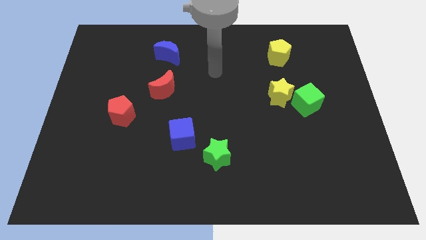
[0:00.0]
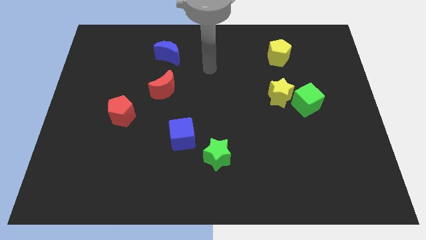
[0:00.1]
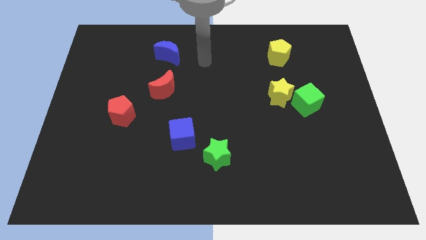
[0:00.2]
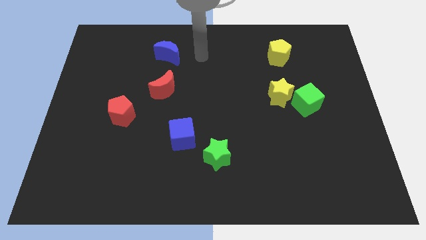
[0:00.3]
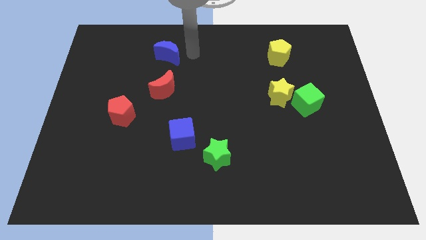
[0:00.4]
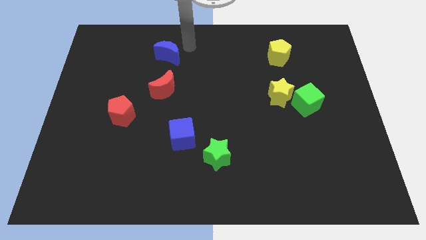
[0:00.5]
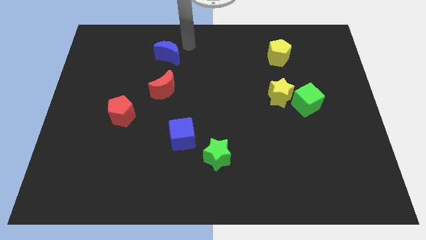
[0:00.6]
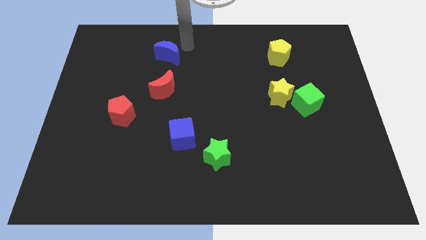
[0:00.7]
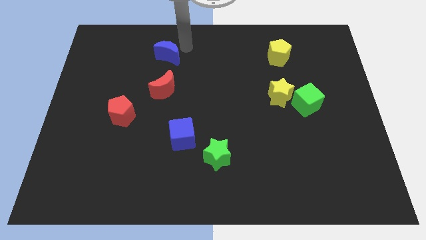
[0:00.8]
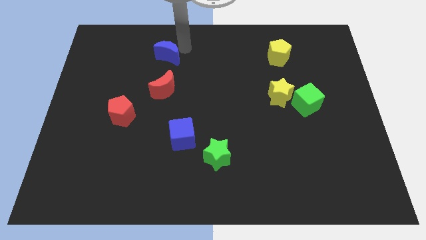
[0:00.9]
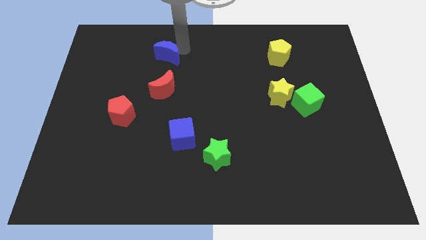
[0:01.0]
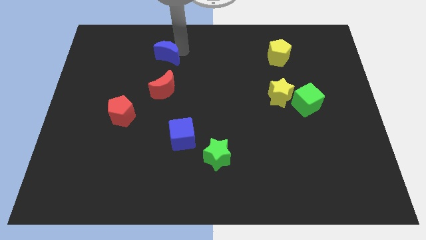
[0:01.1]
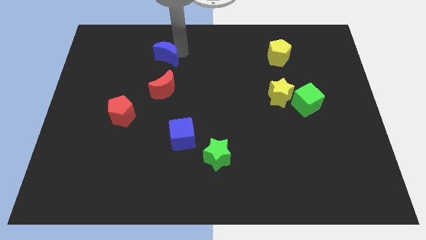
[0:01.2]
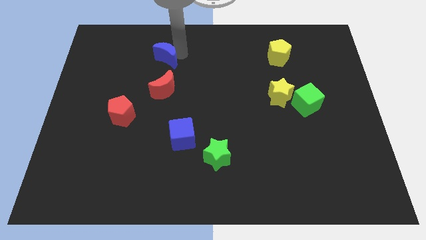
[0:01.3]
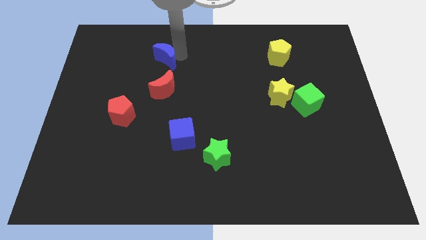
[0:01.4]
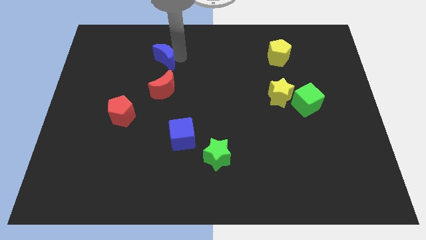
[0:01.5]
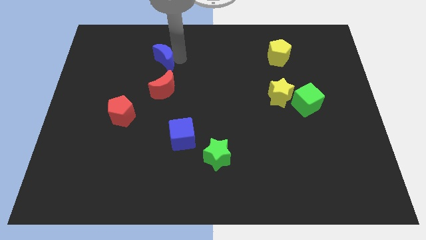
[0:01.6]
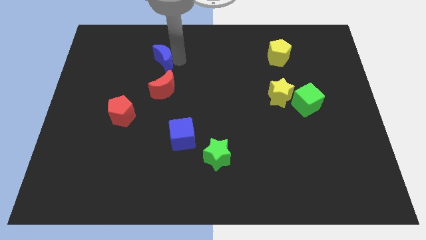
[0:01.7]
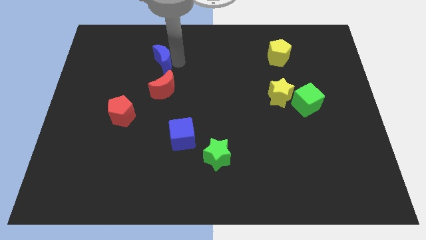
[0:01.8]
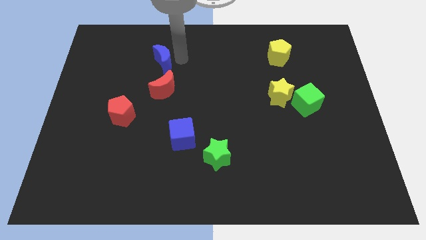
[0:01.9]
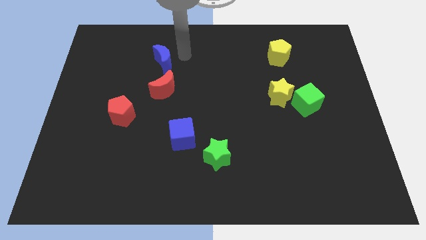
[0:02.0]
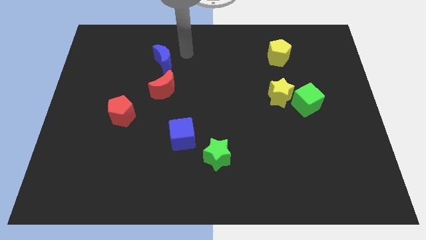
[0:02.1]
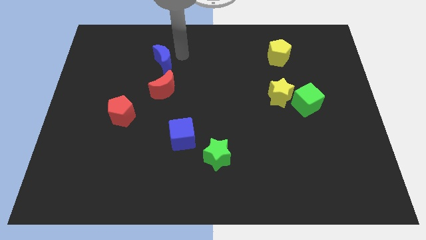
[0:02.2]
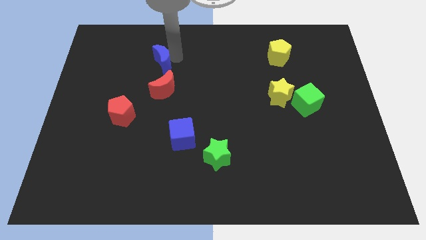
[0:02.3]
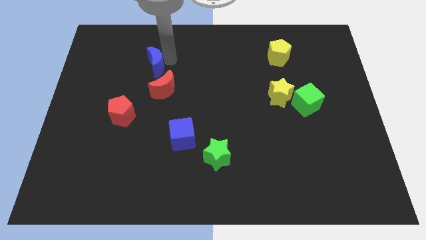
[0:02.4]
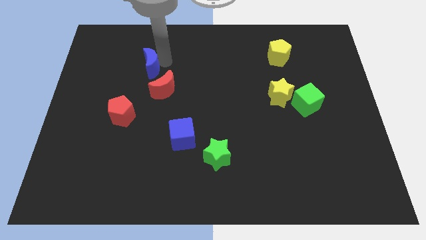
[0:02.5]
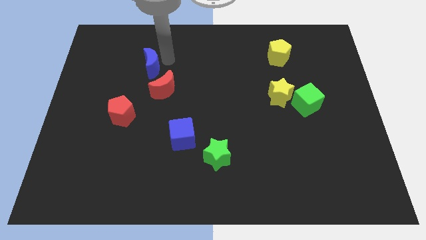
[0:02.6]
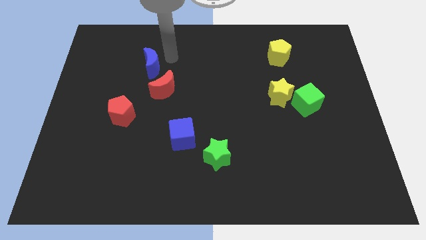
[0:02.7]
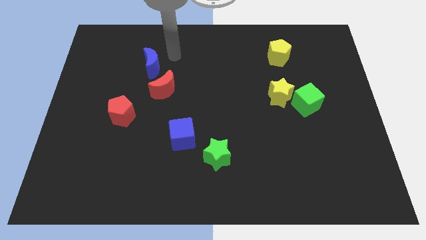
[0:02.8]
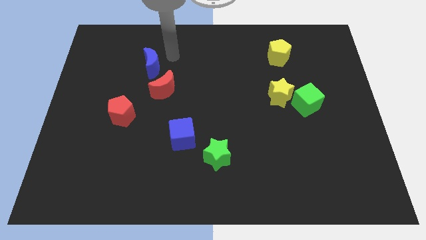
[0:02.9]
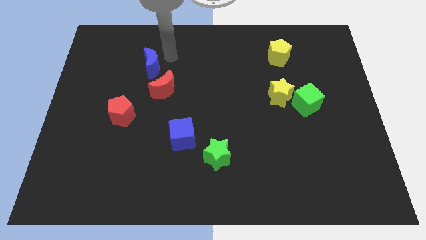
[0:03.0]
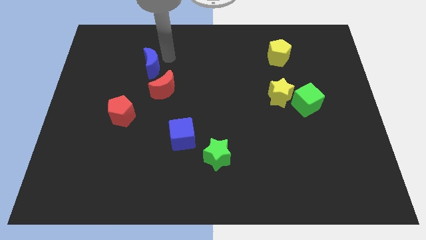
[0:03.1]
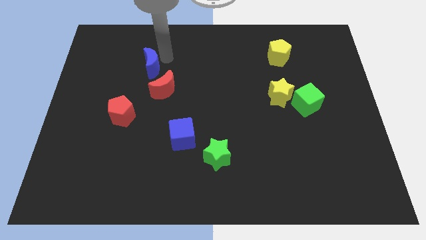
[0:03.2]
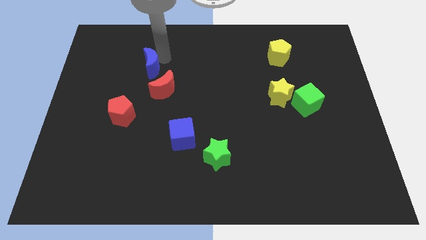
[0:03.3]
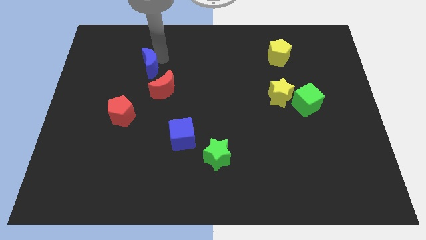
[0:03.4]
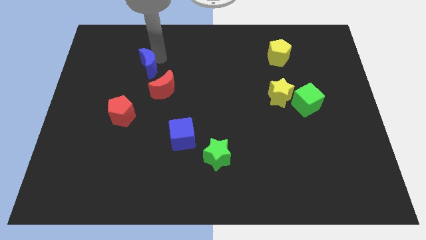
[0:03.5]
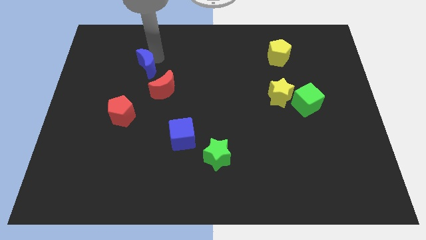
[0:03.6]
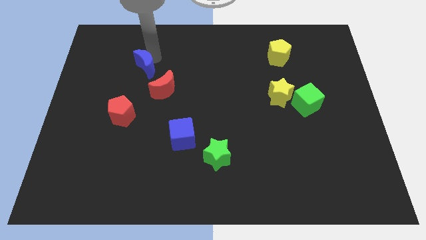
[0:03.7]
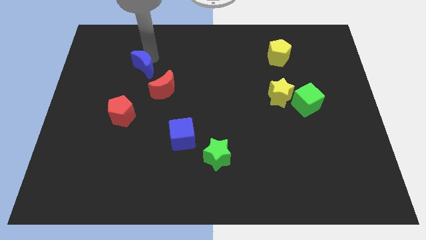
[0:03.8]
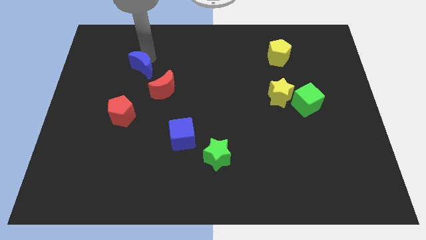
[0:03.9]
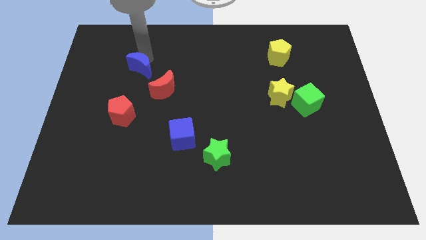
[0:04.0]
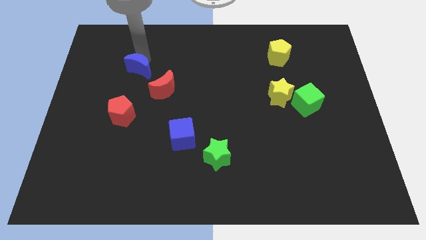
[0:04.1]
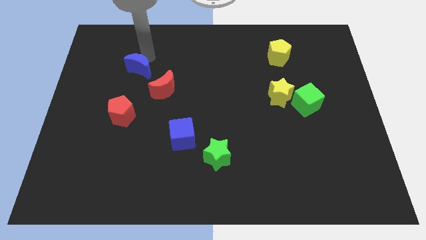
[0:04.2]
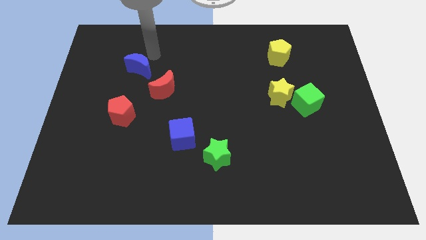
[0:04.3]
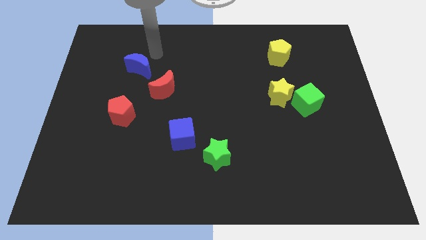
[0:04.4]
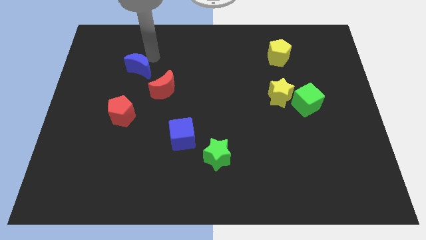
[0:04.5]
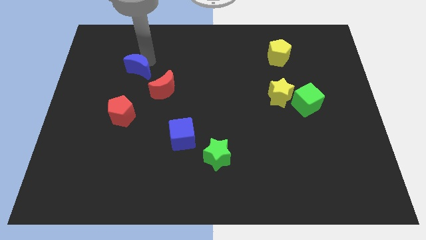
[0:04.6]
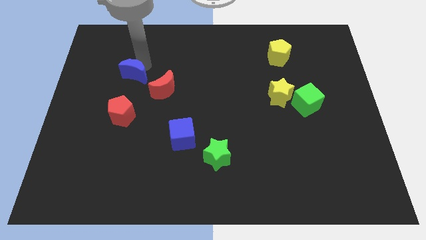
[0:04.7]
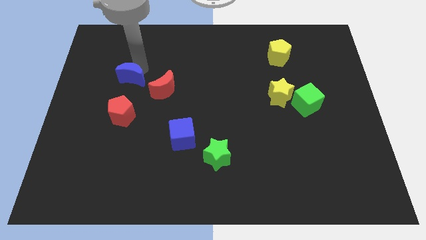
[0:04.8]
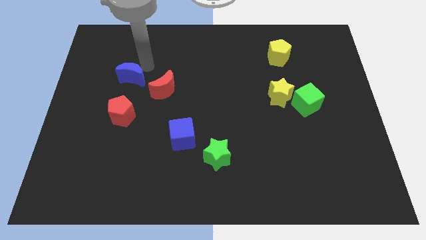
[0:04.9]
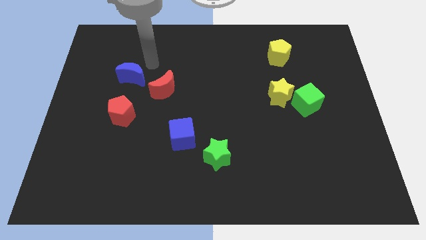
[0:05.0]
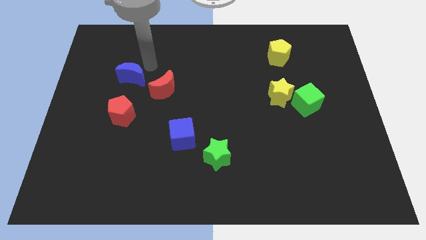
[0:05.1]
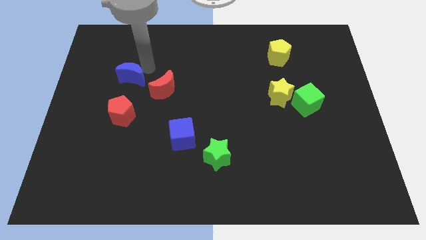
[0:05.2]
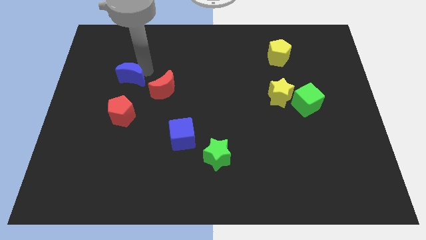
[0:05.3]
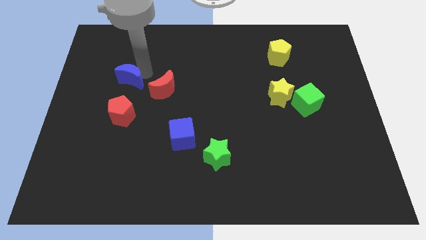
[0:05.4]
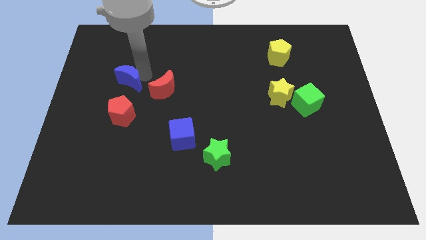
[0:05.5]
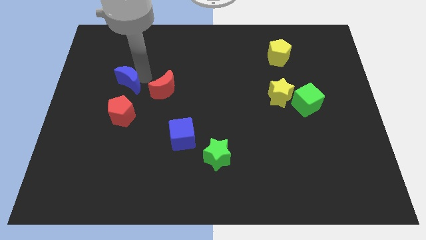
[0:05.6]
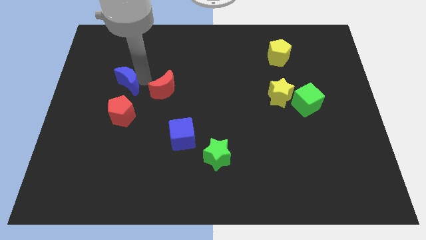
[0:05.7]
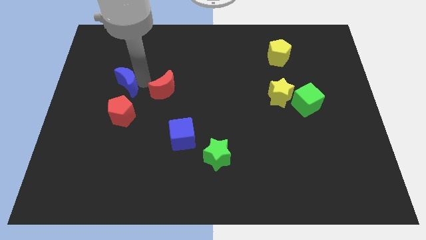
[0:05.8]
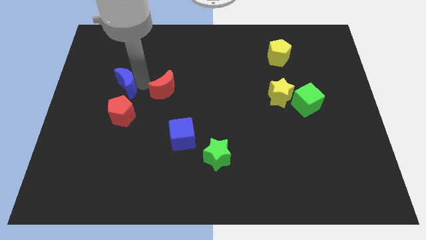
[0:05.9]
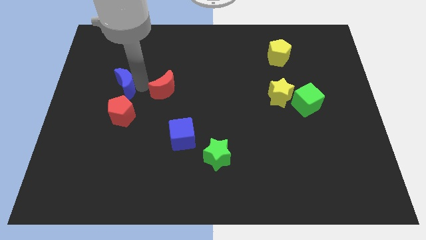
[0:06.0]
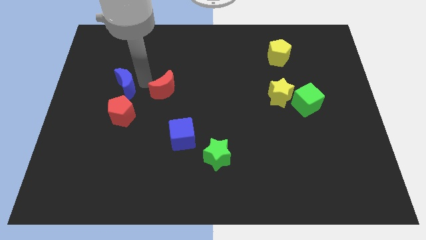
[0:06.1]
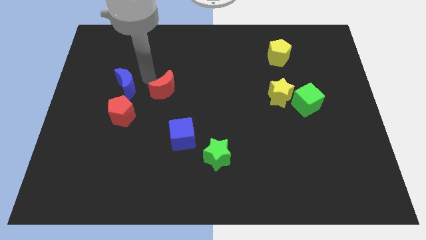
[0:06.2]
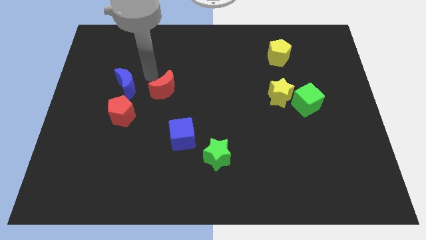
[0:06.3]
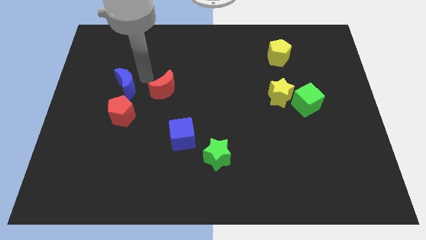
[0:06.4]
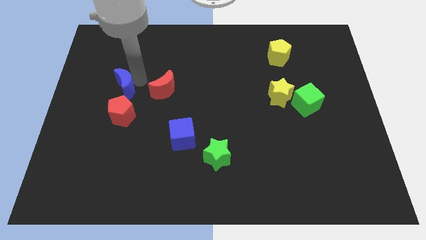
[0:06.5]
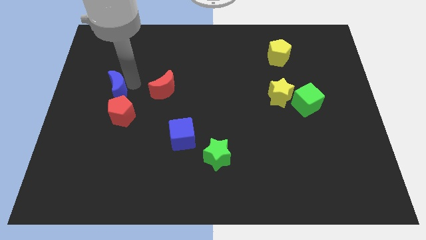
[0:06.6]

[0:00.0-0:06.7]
put the blue moon to the top left of the red pentagon

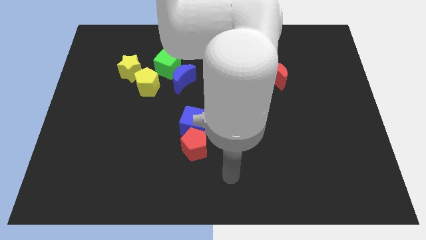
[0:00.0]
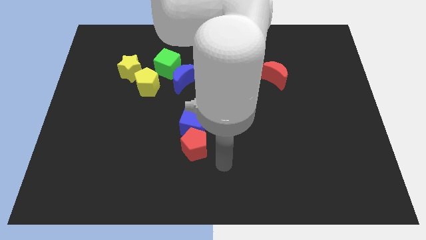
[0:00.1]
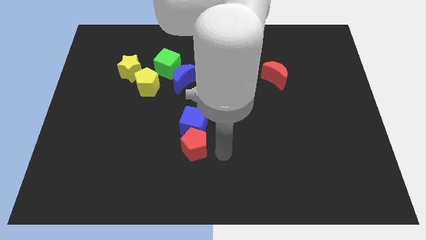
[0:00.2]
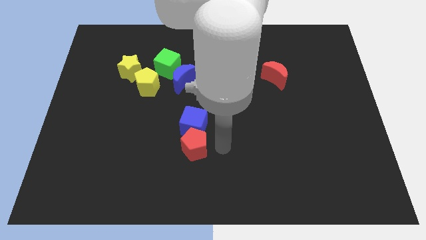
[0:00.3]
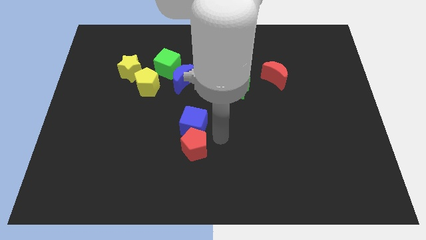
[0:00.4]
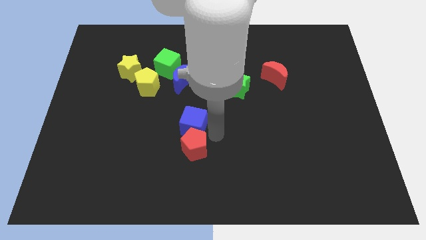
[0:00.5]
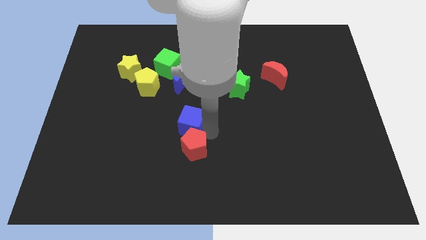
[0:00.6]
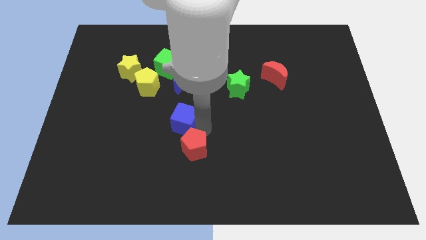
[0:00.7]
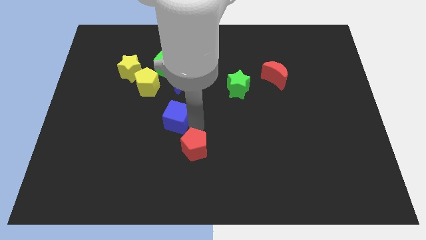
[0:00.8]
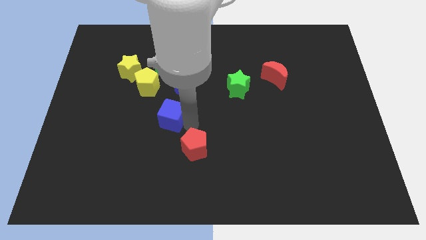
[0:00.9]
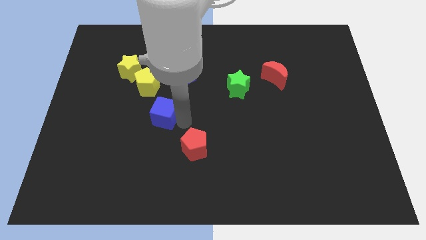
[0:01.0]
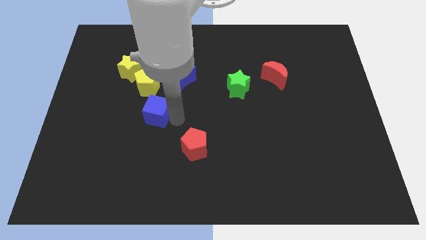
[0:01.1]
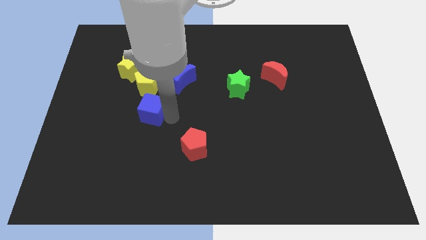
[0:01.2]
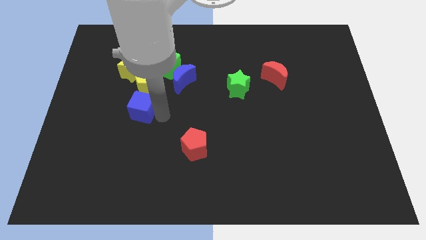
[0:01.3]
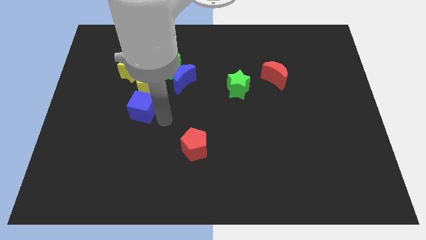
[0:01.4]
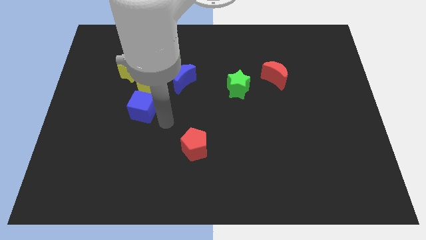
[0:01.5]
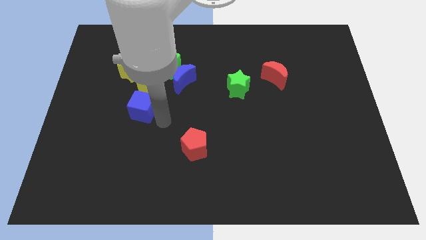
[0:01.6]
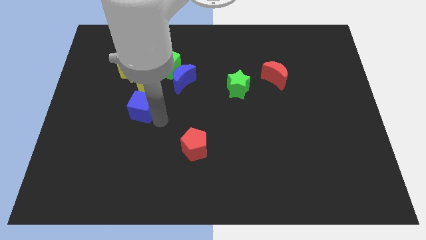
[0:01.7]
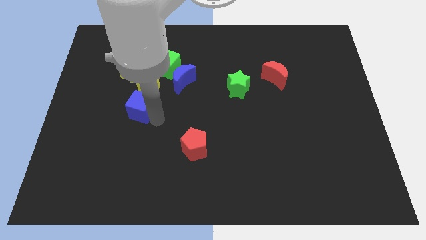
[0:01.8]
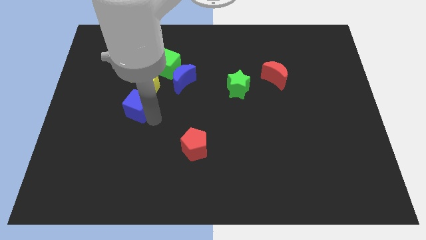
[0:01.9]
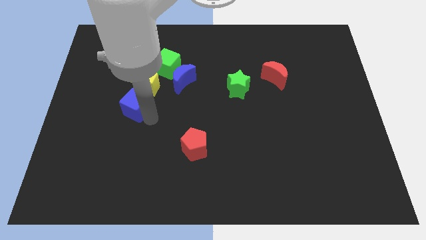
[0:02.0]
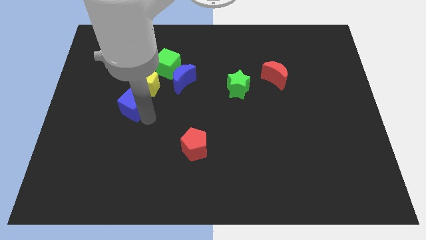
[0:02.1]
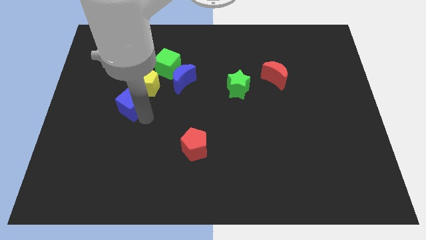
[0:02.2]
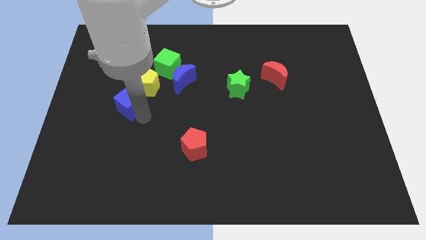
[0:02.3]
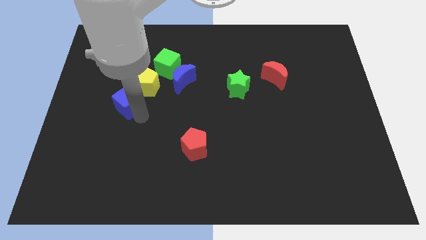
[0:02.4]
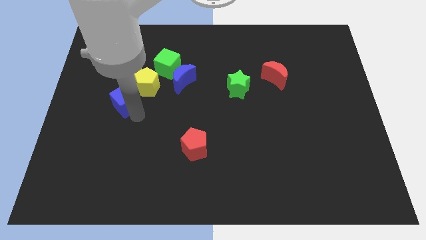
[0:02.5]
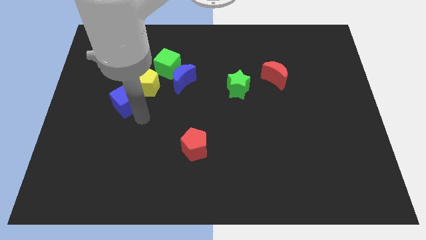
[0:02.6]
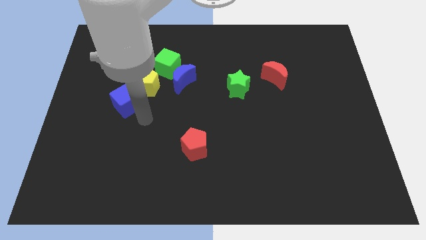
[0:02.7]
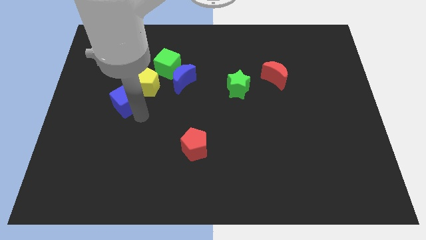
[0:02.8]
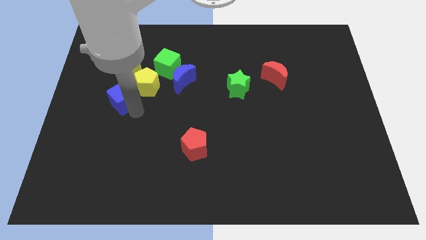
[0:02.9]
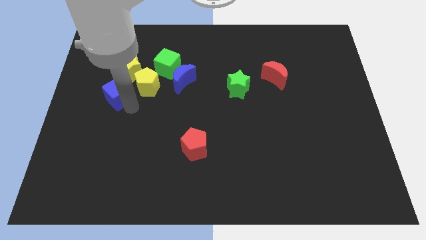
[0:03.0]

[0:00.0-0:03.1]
put the blue cube diagonally down and to the left of the yellow star
